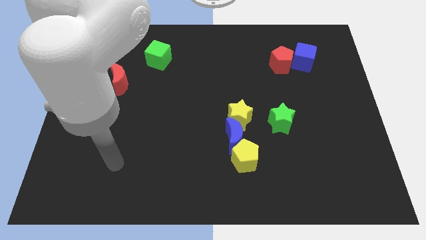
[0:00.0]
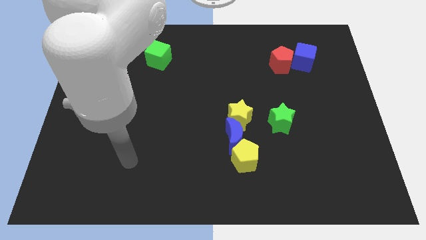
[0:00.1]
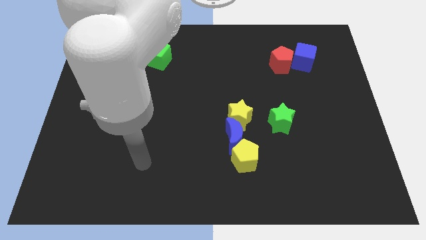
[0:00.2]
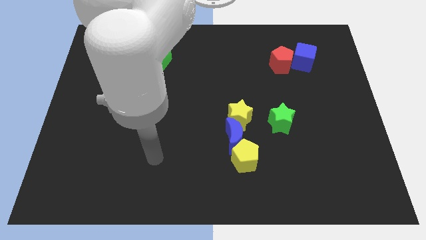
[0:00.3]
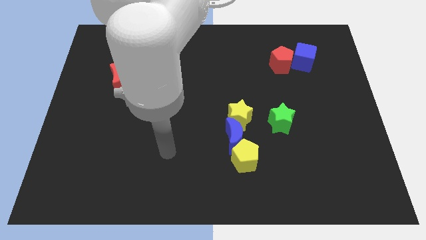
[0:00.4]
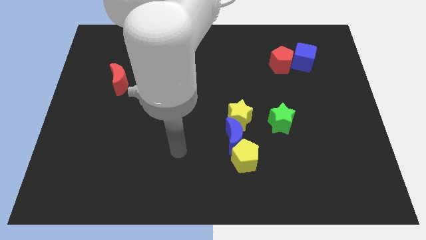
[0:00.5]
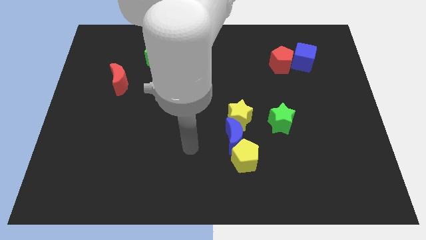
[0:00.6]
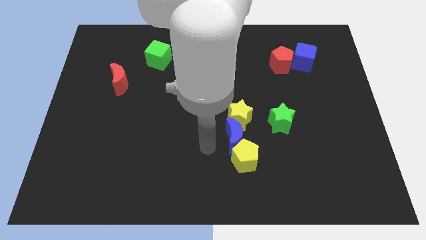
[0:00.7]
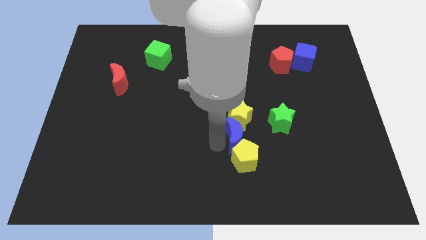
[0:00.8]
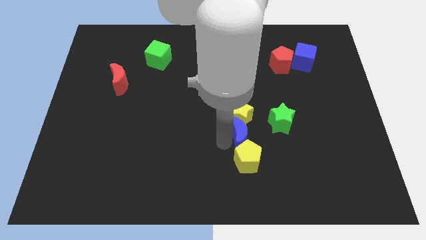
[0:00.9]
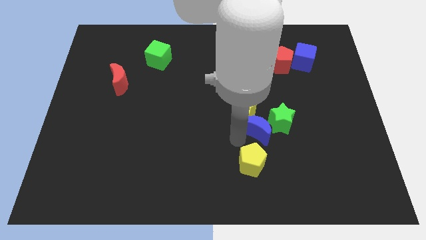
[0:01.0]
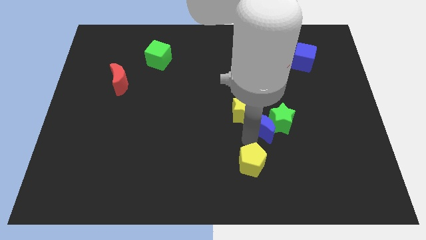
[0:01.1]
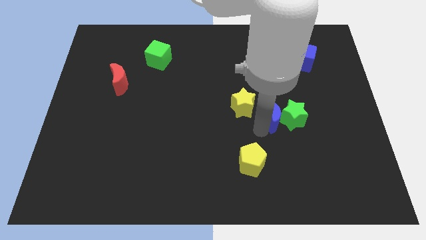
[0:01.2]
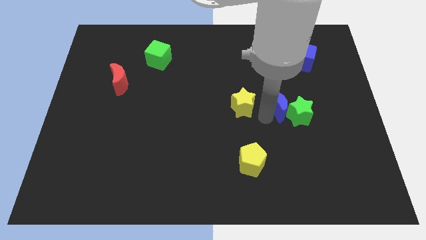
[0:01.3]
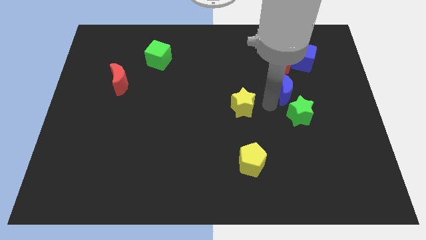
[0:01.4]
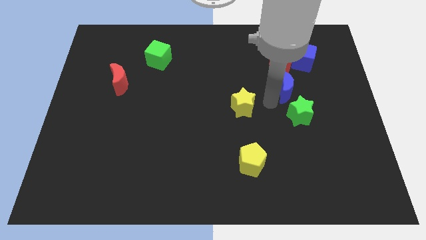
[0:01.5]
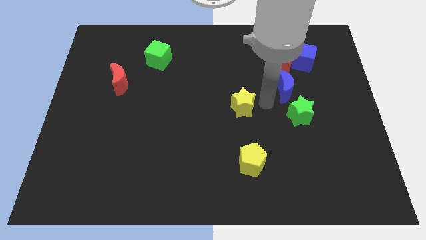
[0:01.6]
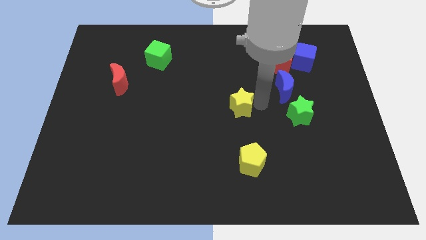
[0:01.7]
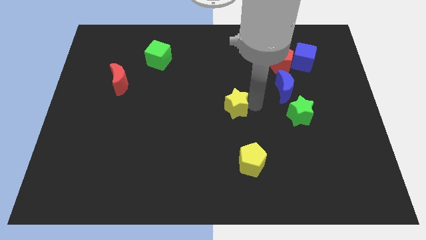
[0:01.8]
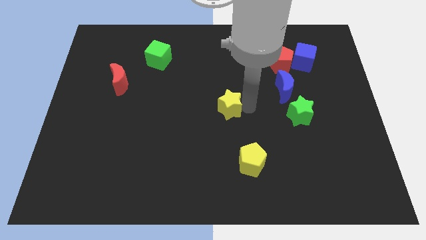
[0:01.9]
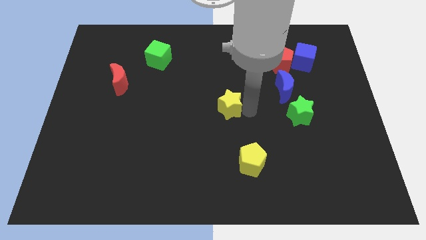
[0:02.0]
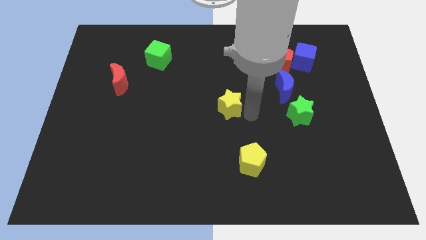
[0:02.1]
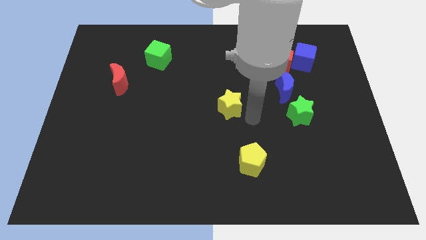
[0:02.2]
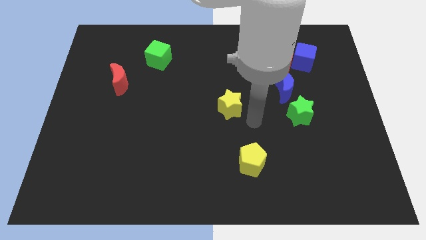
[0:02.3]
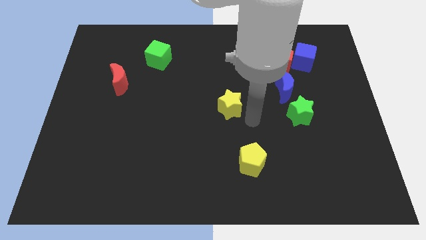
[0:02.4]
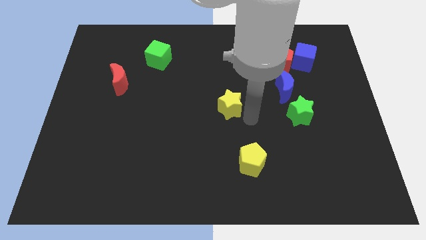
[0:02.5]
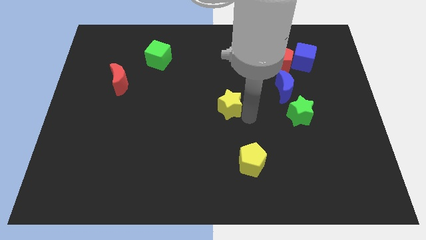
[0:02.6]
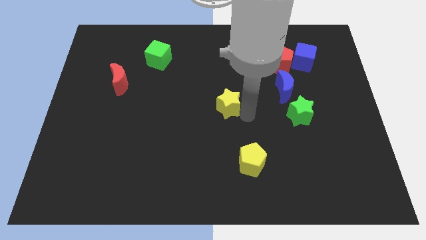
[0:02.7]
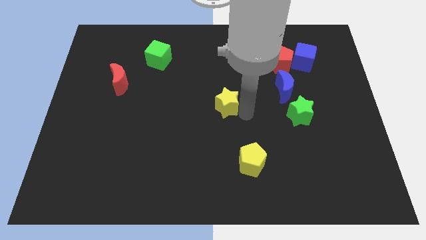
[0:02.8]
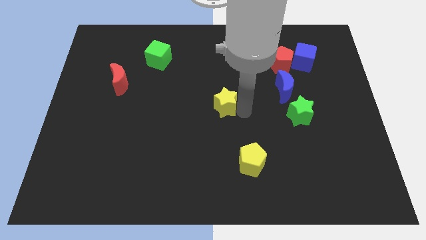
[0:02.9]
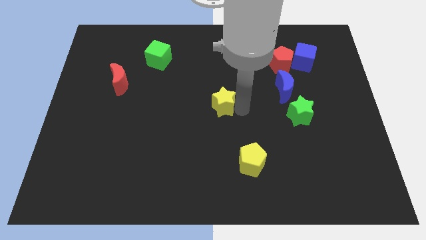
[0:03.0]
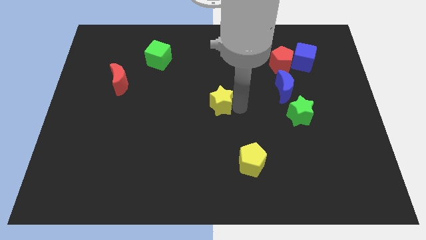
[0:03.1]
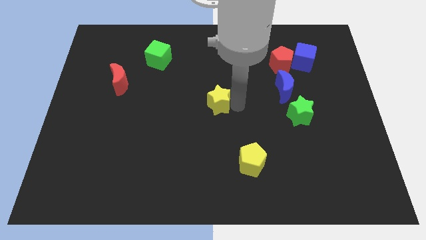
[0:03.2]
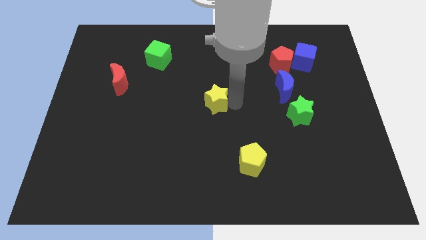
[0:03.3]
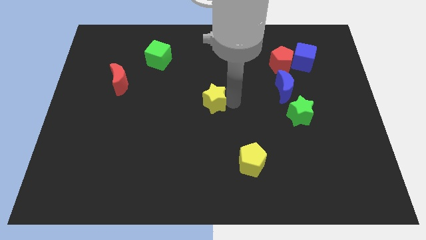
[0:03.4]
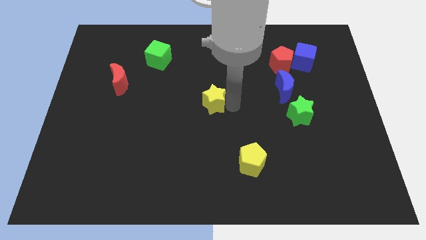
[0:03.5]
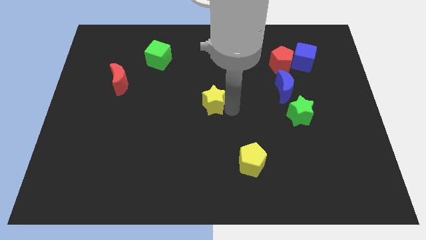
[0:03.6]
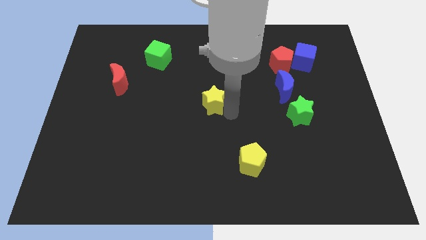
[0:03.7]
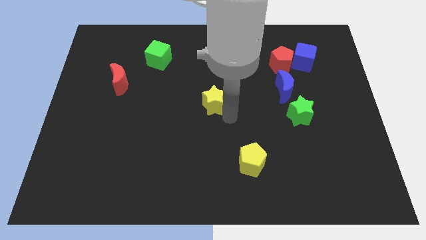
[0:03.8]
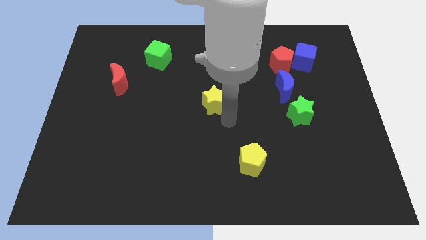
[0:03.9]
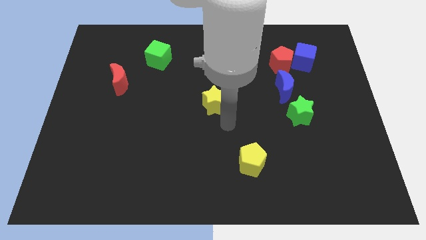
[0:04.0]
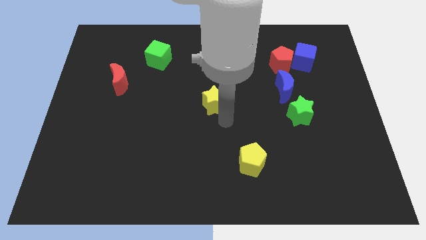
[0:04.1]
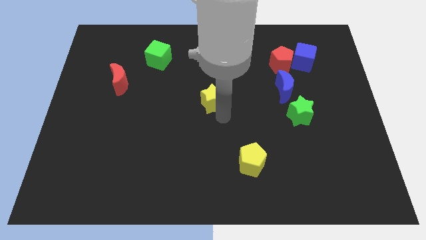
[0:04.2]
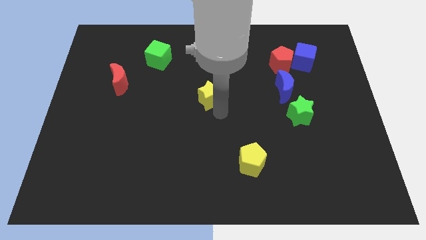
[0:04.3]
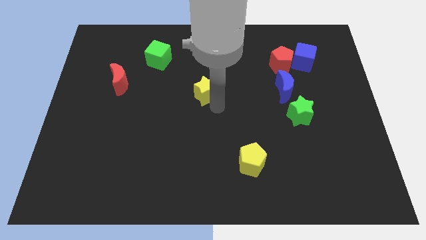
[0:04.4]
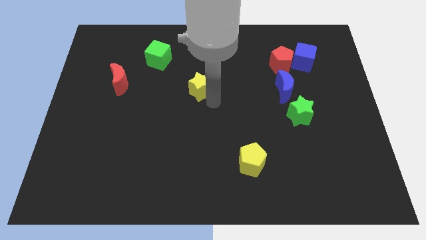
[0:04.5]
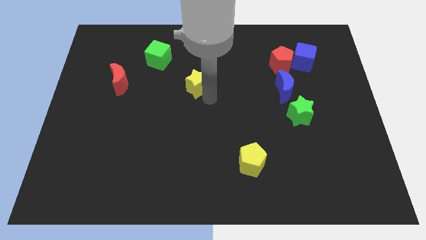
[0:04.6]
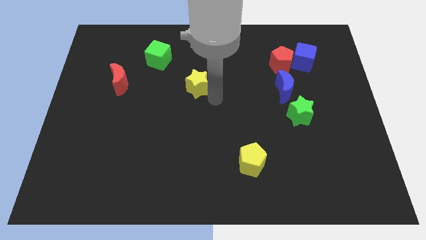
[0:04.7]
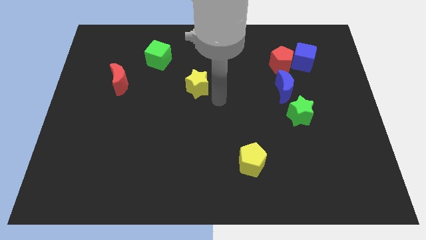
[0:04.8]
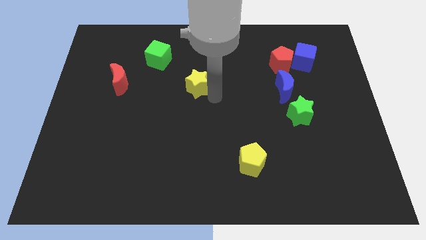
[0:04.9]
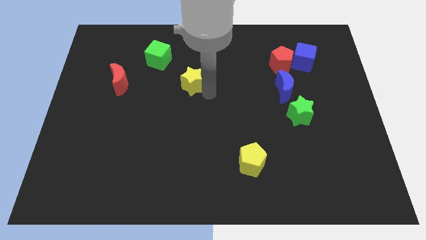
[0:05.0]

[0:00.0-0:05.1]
put the yellow star to the bottom right side of the green cube

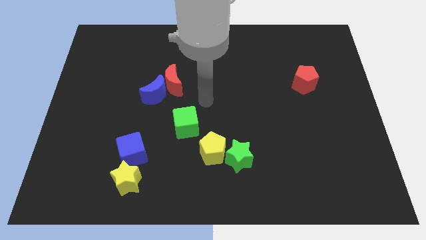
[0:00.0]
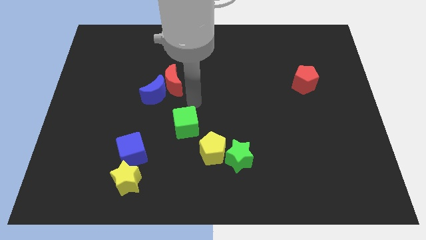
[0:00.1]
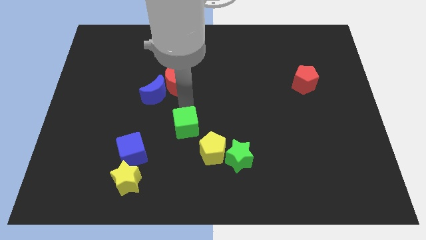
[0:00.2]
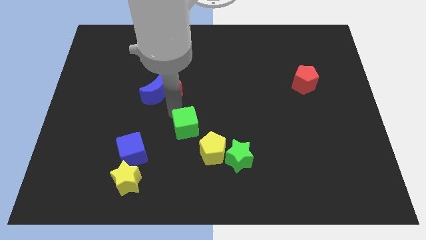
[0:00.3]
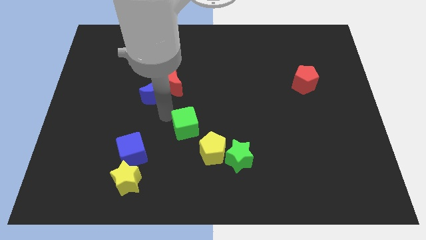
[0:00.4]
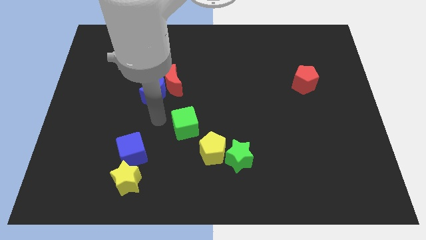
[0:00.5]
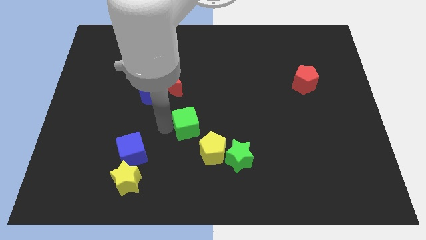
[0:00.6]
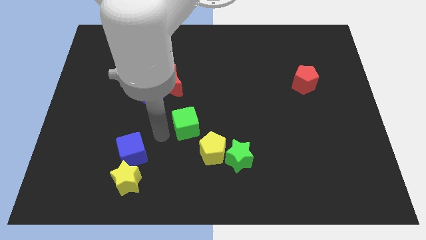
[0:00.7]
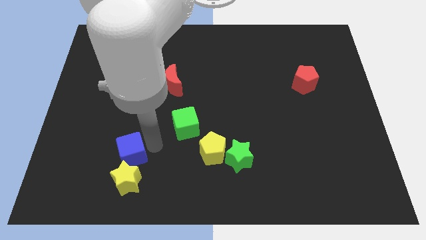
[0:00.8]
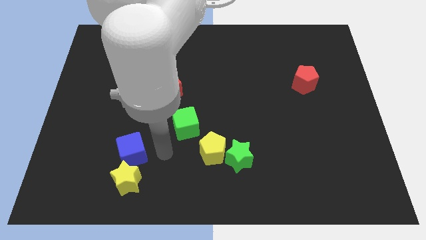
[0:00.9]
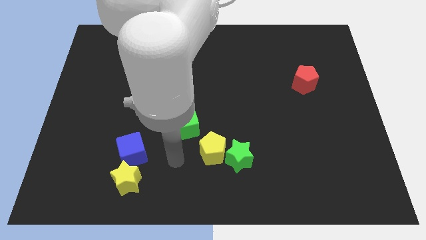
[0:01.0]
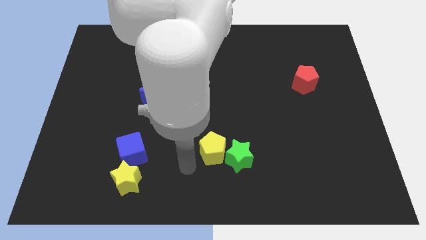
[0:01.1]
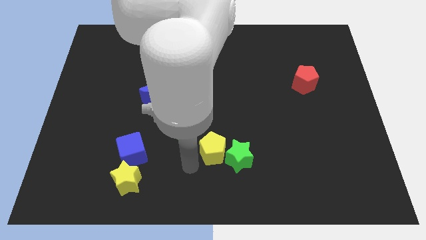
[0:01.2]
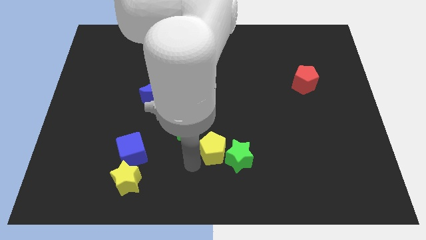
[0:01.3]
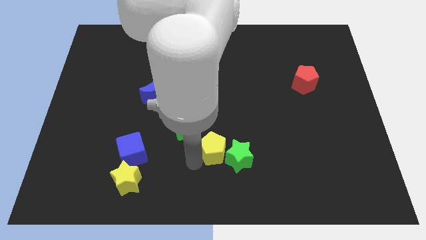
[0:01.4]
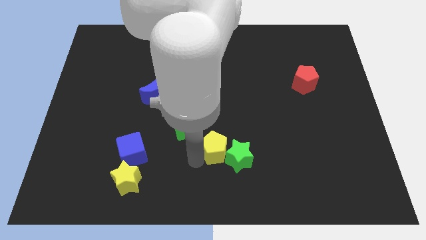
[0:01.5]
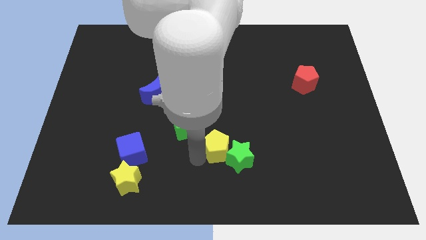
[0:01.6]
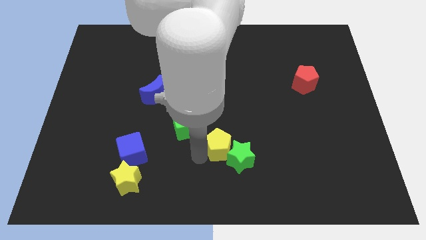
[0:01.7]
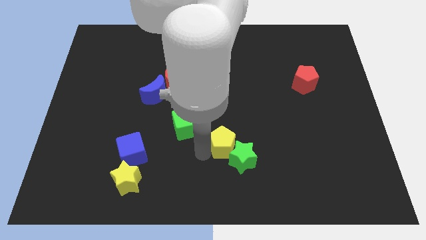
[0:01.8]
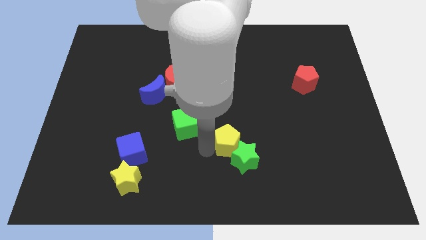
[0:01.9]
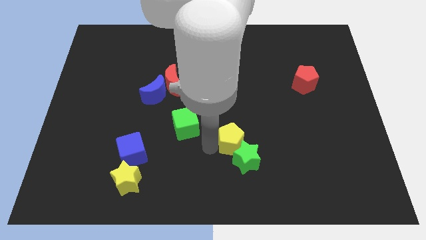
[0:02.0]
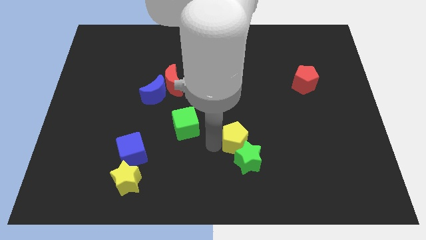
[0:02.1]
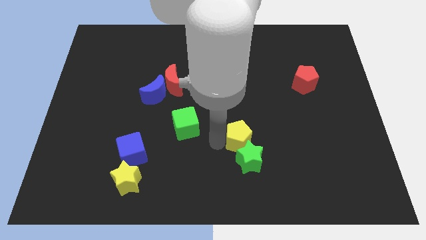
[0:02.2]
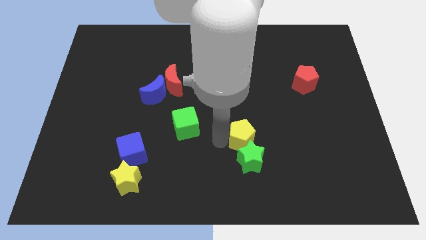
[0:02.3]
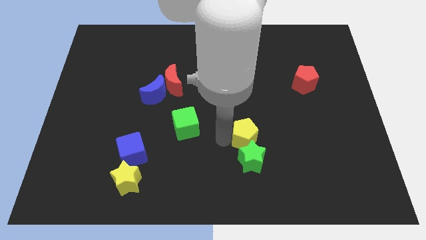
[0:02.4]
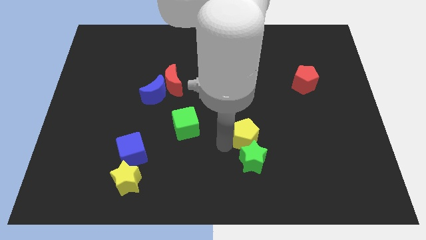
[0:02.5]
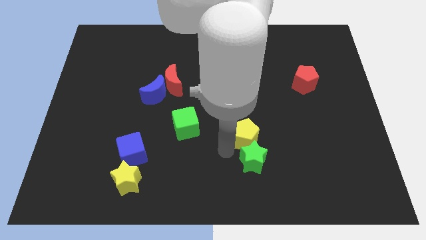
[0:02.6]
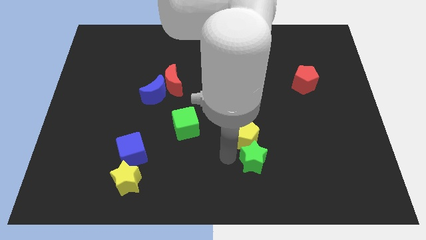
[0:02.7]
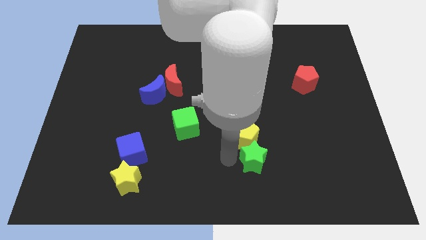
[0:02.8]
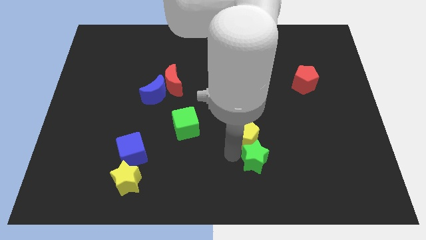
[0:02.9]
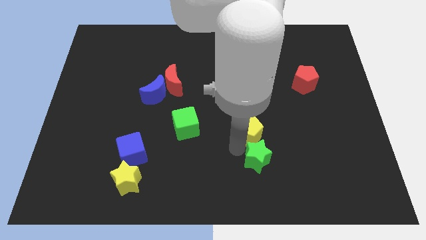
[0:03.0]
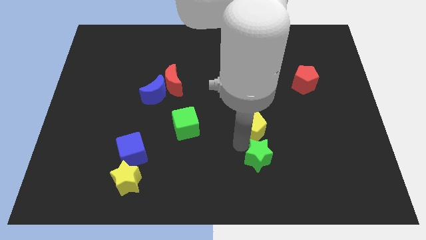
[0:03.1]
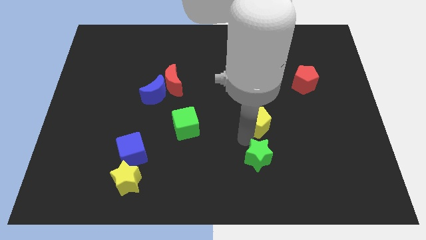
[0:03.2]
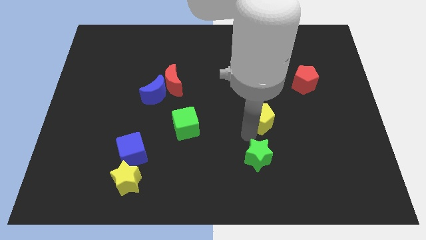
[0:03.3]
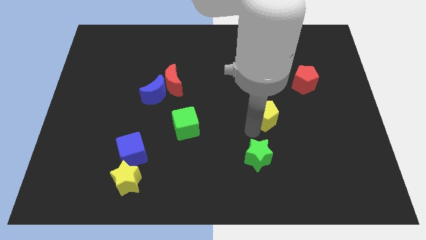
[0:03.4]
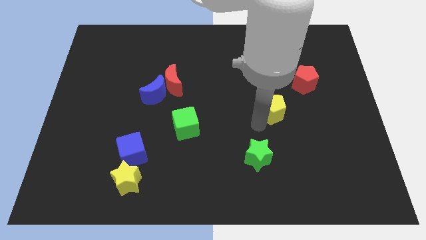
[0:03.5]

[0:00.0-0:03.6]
slide the yellow pentagon to the bottom left of the red pentagon
